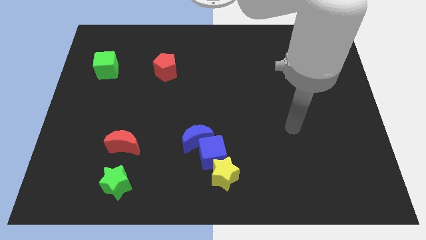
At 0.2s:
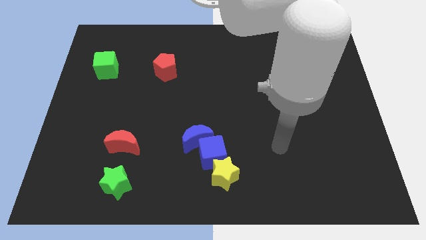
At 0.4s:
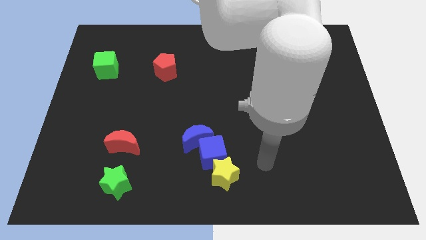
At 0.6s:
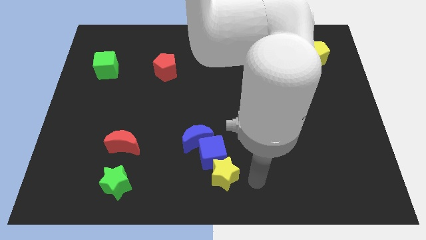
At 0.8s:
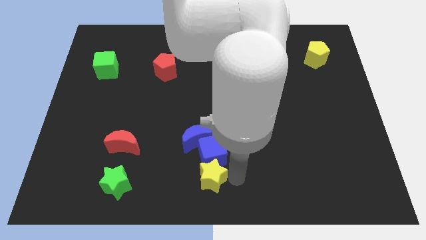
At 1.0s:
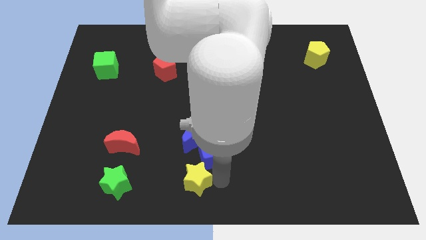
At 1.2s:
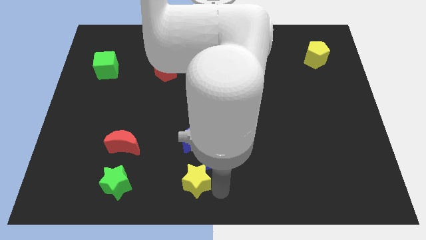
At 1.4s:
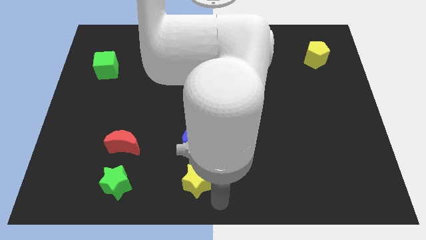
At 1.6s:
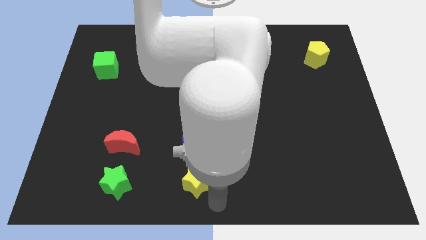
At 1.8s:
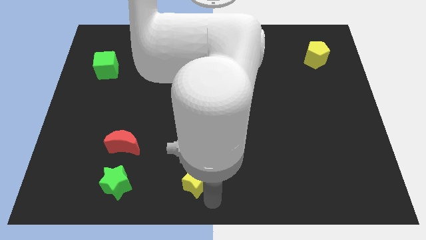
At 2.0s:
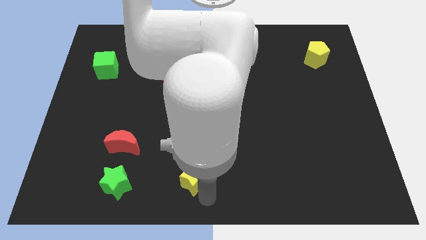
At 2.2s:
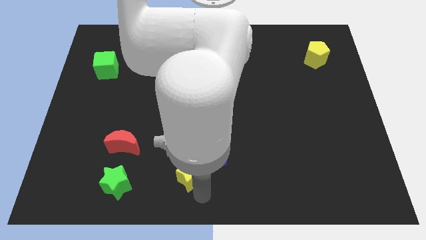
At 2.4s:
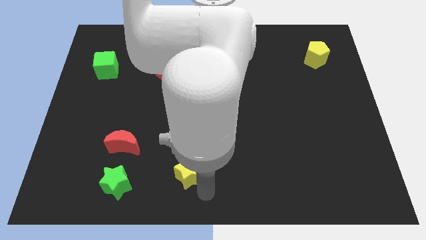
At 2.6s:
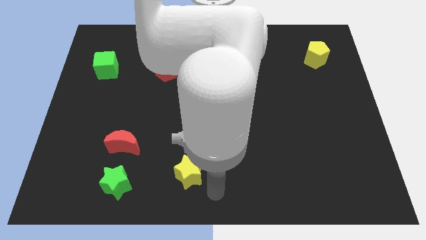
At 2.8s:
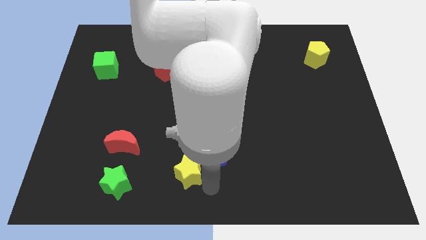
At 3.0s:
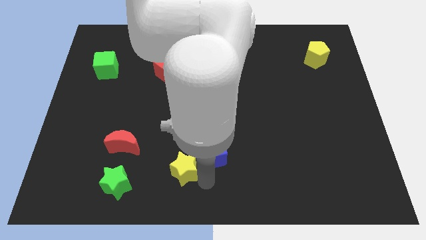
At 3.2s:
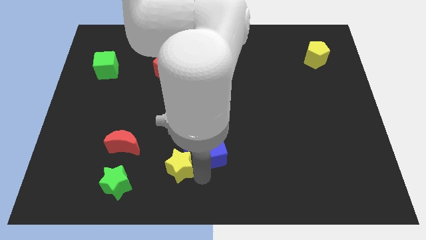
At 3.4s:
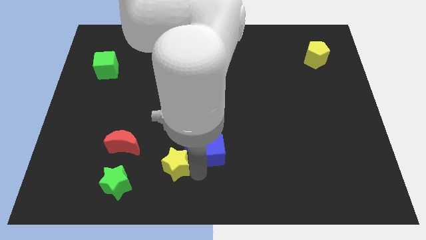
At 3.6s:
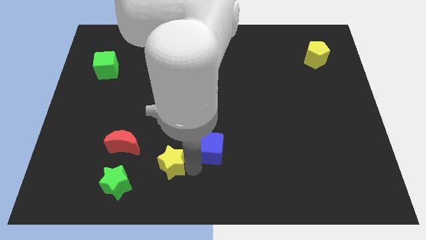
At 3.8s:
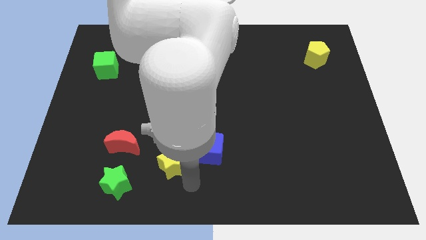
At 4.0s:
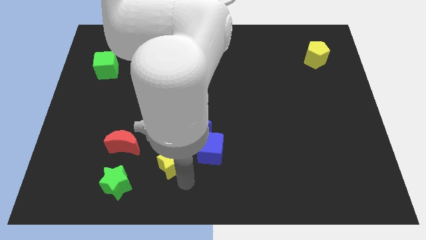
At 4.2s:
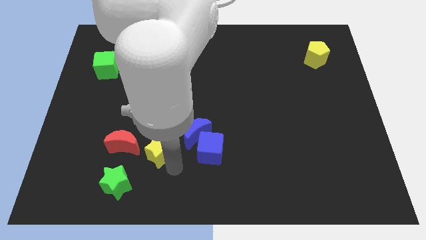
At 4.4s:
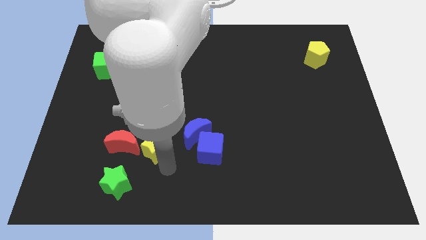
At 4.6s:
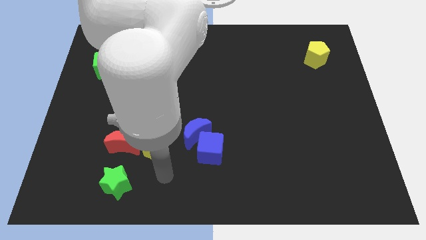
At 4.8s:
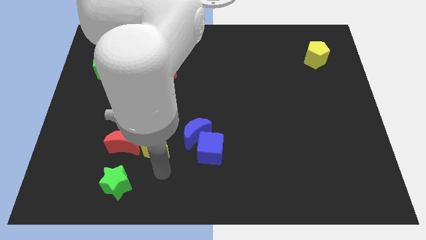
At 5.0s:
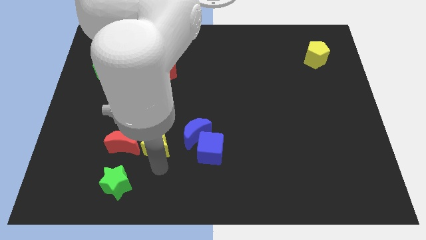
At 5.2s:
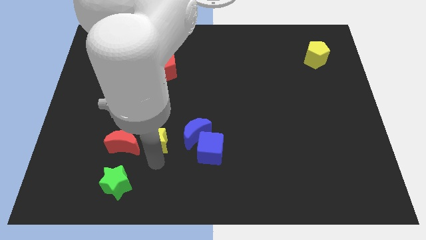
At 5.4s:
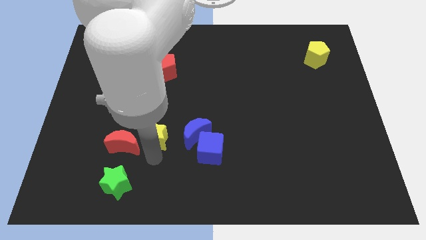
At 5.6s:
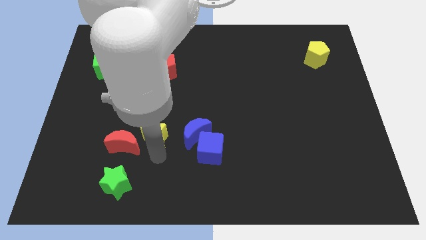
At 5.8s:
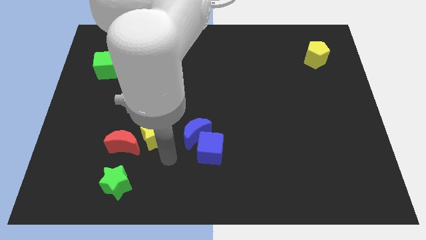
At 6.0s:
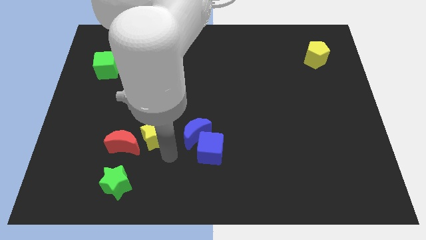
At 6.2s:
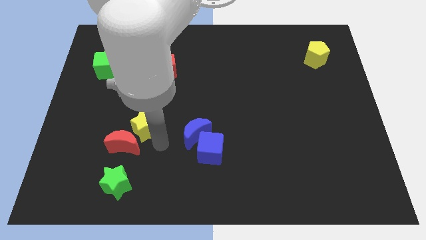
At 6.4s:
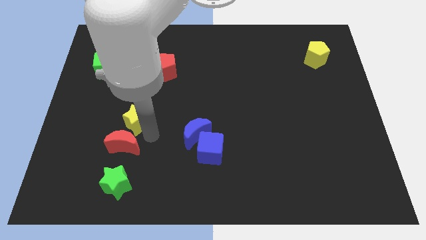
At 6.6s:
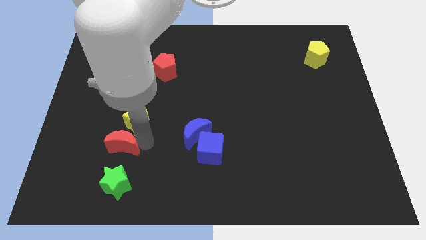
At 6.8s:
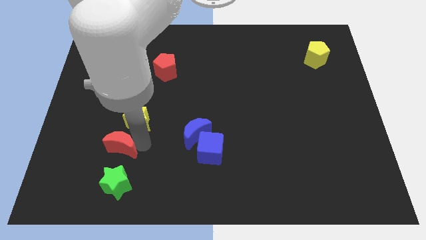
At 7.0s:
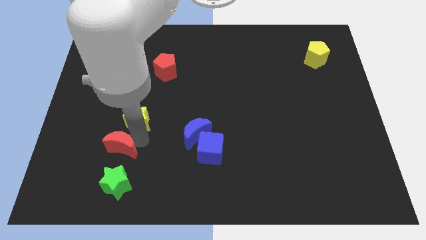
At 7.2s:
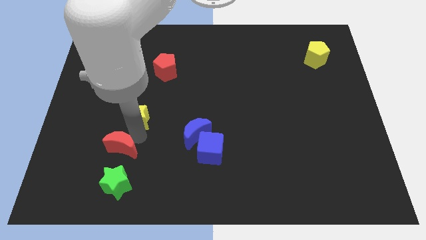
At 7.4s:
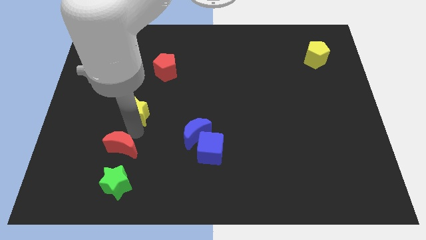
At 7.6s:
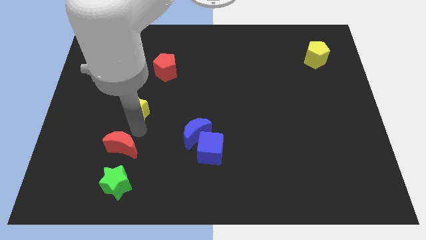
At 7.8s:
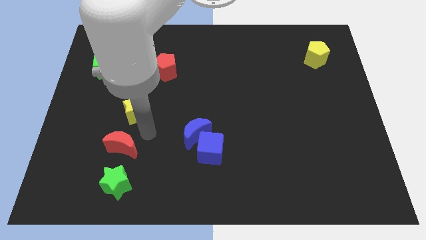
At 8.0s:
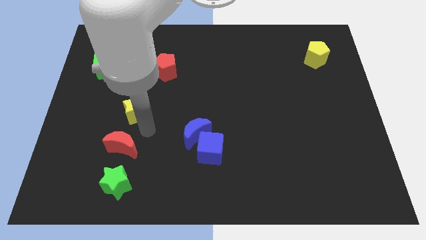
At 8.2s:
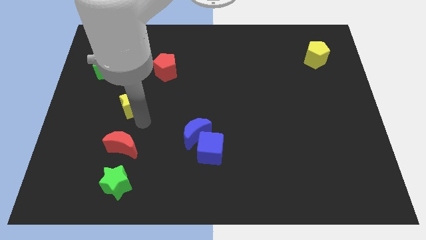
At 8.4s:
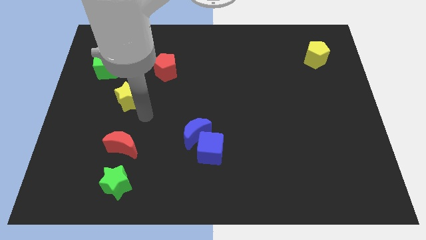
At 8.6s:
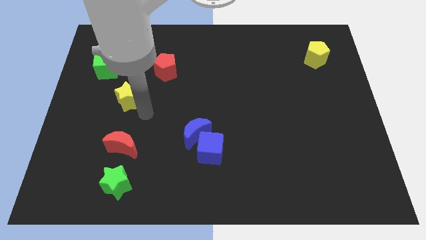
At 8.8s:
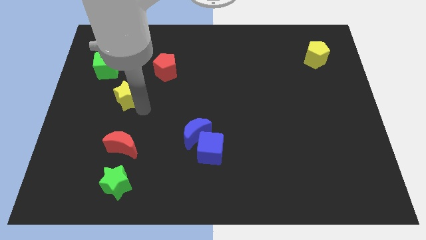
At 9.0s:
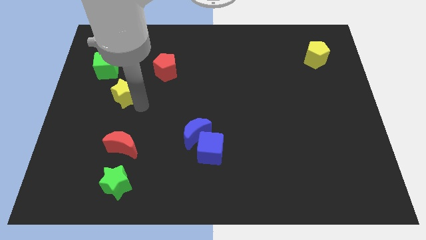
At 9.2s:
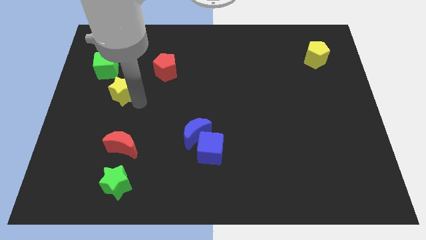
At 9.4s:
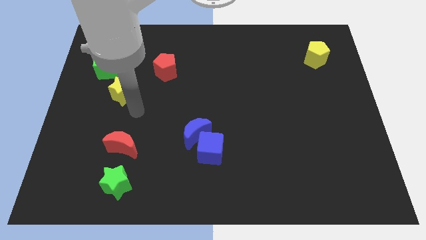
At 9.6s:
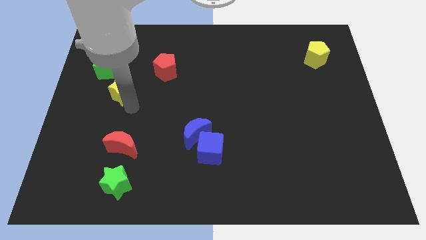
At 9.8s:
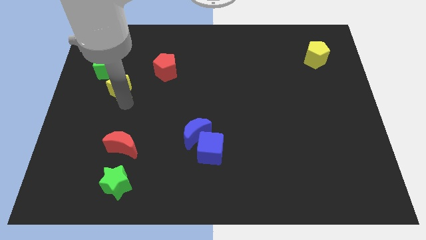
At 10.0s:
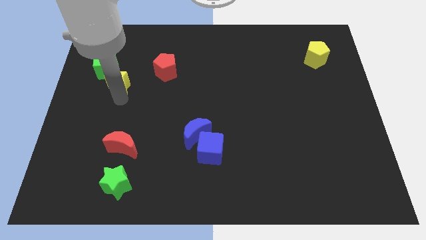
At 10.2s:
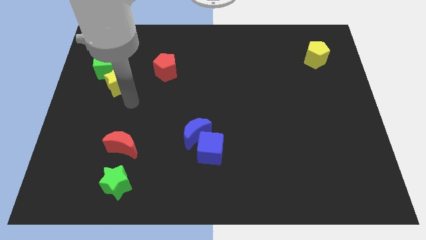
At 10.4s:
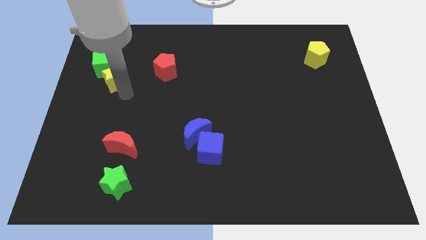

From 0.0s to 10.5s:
put the yellow star towards the green cube

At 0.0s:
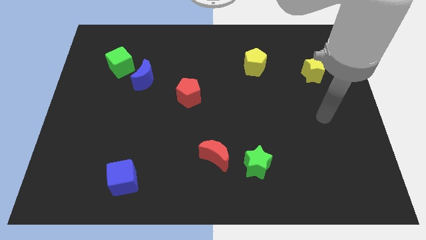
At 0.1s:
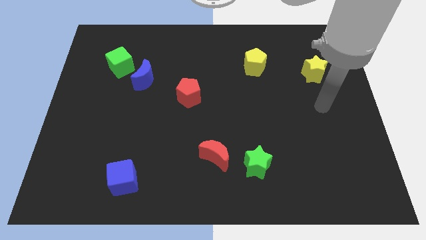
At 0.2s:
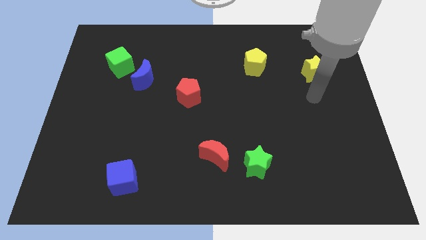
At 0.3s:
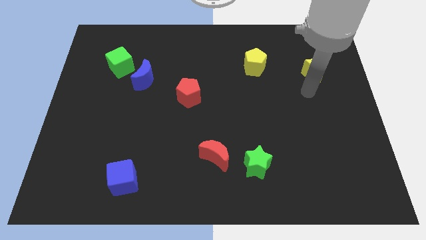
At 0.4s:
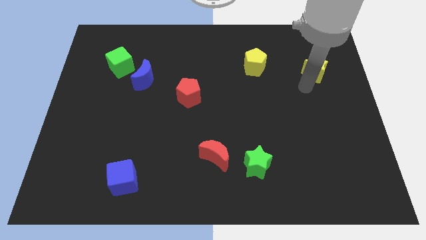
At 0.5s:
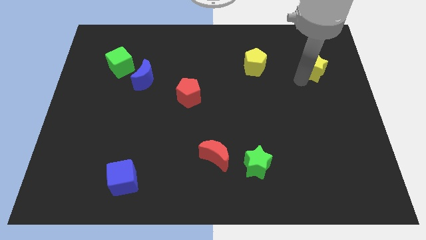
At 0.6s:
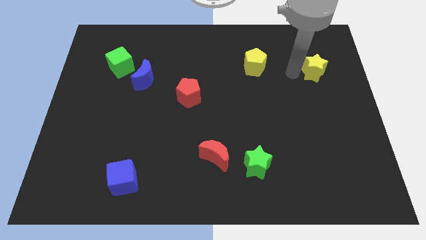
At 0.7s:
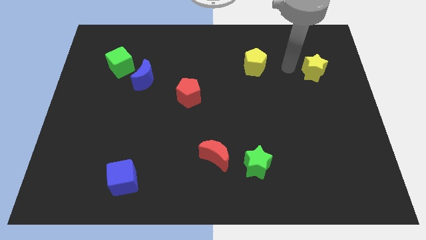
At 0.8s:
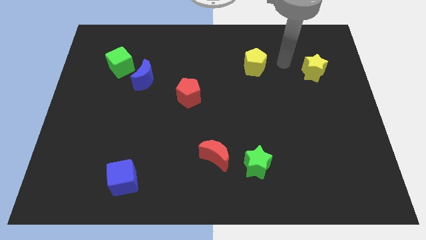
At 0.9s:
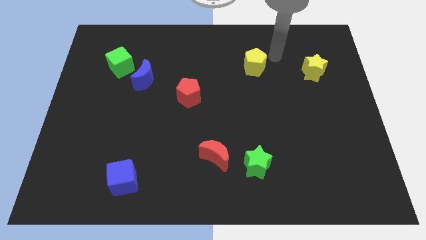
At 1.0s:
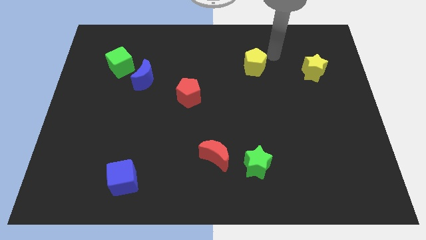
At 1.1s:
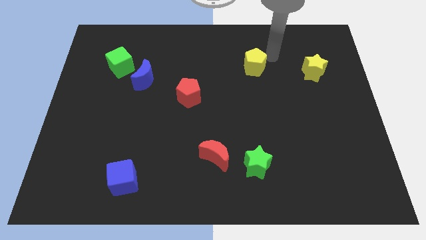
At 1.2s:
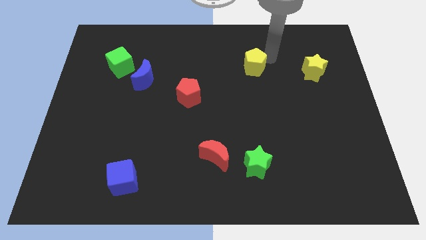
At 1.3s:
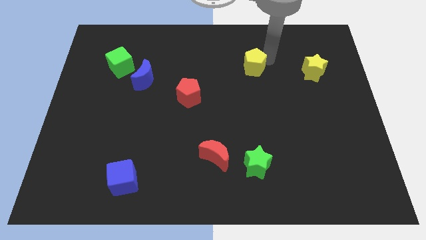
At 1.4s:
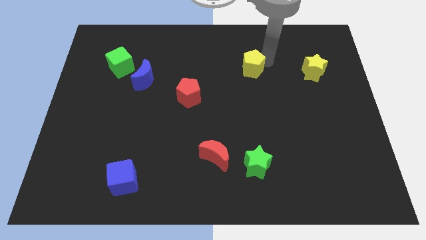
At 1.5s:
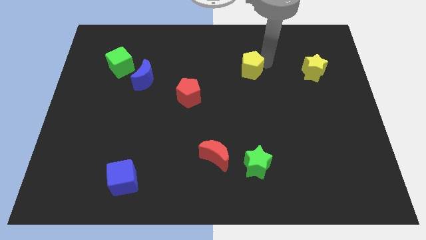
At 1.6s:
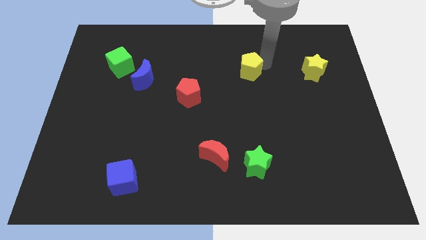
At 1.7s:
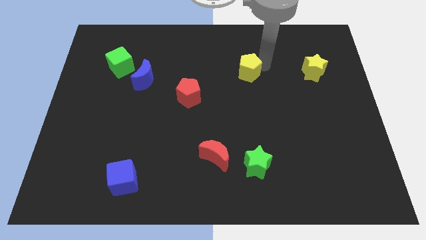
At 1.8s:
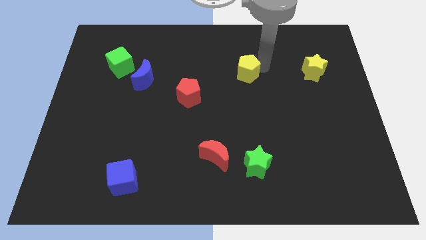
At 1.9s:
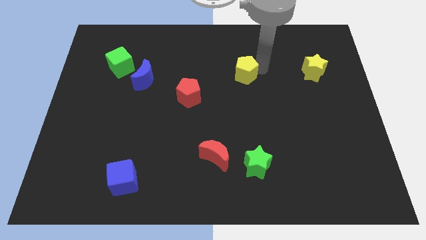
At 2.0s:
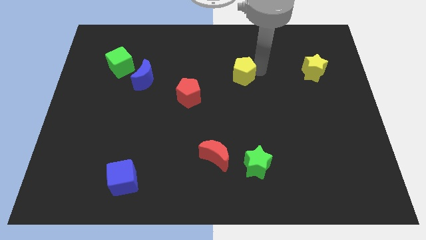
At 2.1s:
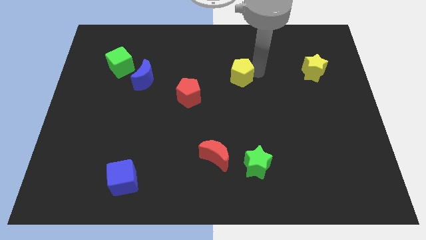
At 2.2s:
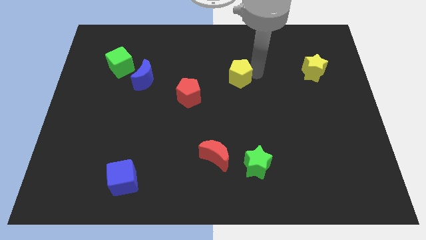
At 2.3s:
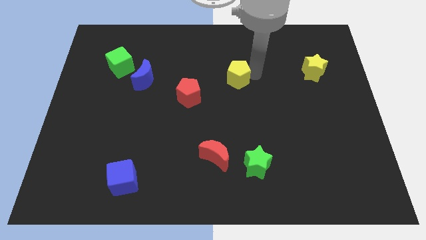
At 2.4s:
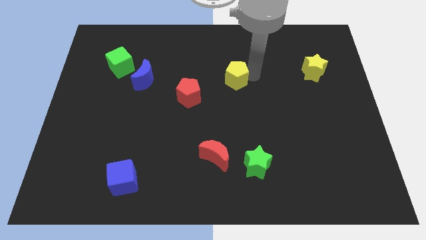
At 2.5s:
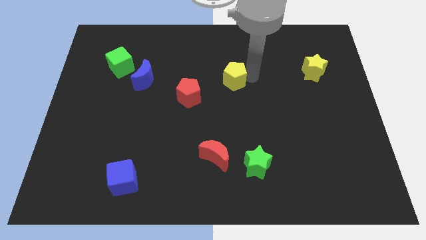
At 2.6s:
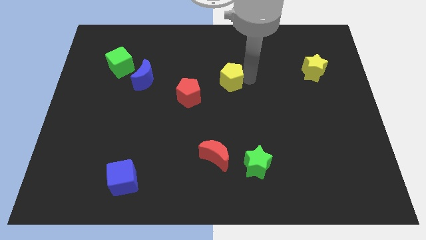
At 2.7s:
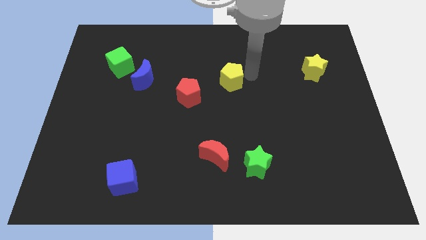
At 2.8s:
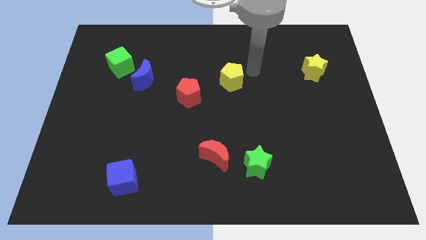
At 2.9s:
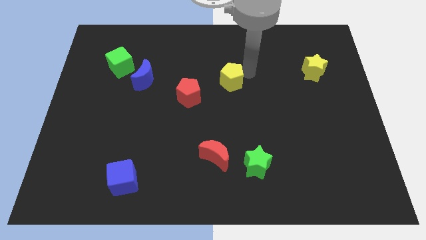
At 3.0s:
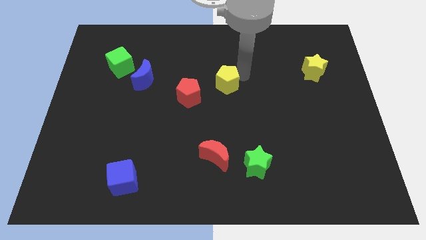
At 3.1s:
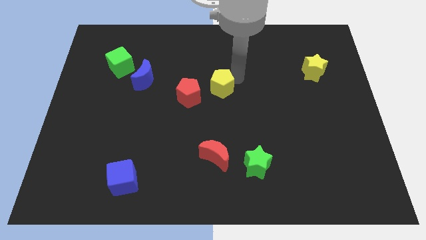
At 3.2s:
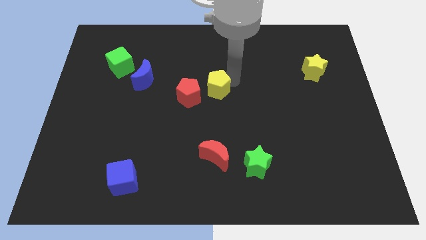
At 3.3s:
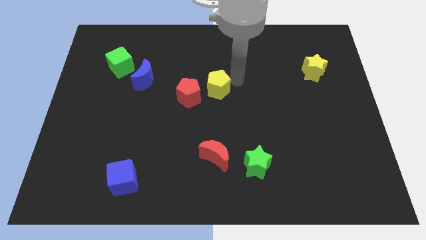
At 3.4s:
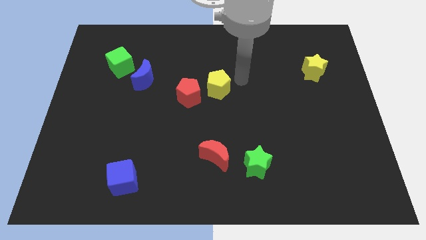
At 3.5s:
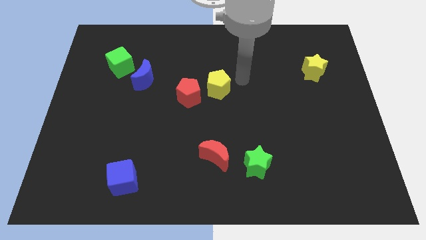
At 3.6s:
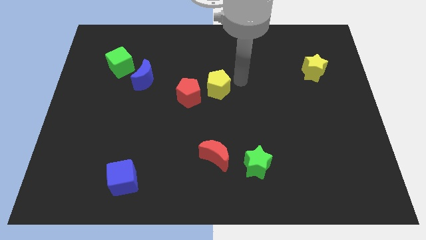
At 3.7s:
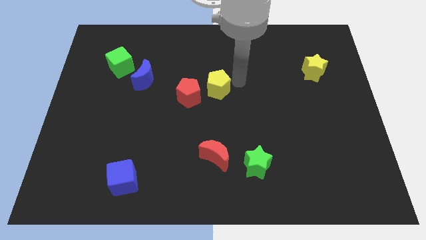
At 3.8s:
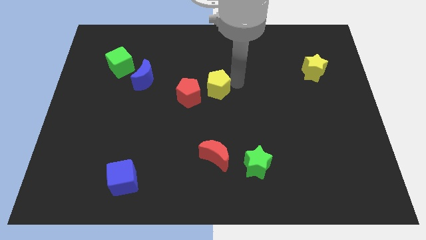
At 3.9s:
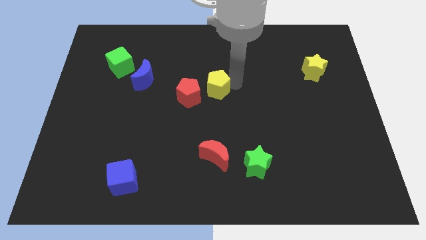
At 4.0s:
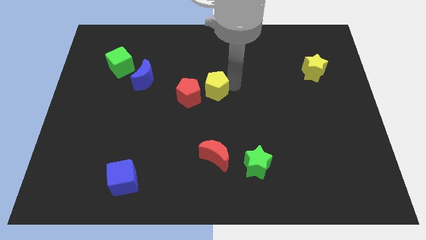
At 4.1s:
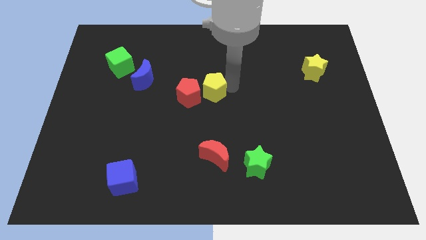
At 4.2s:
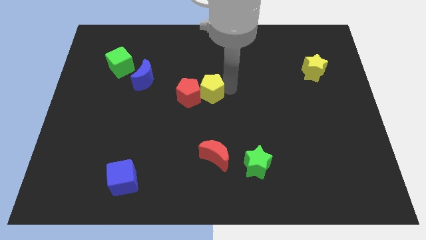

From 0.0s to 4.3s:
put the yellow pentagon towards the red pentagon
